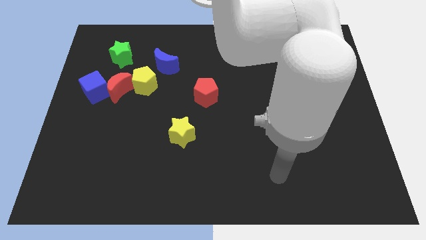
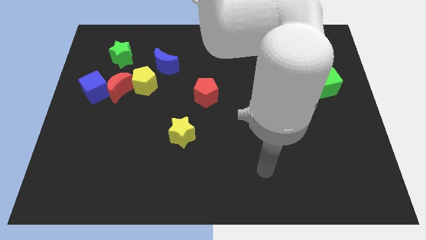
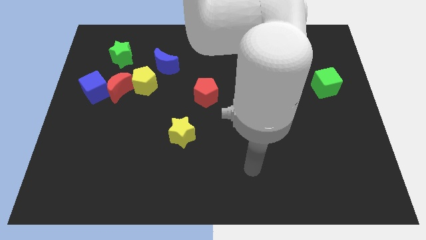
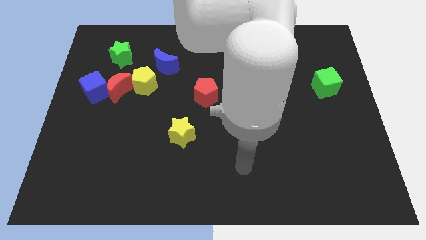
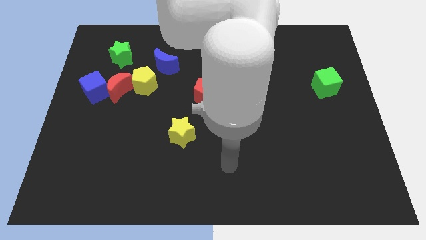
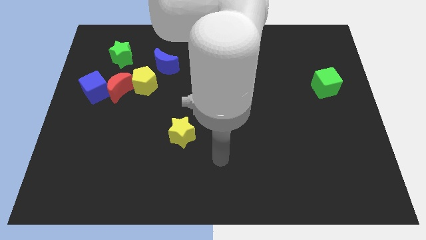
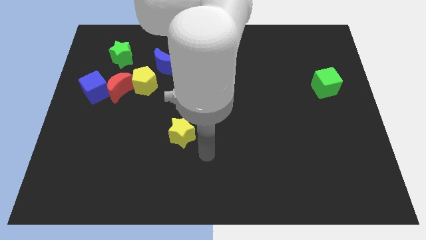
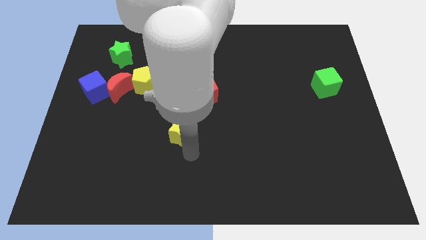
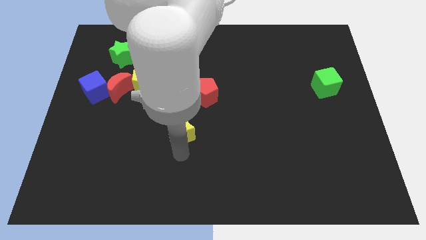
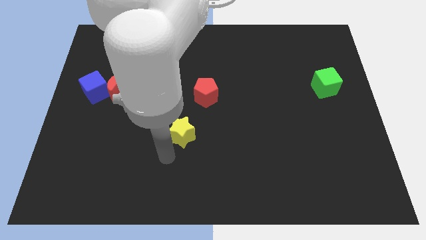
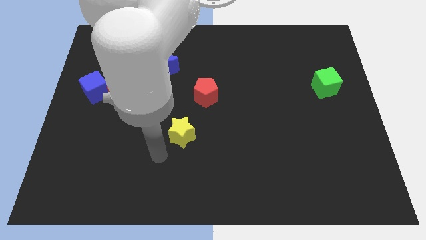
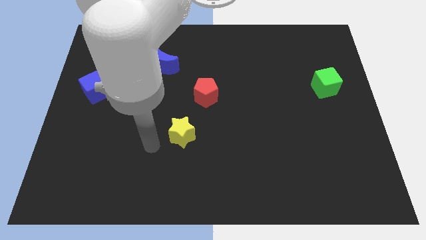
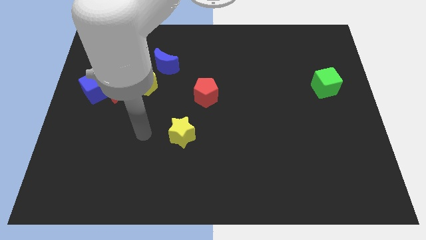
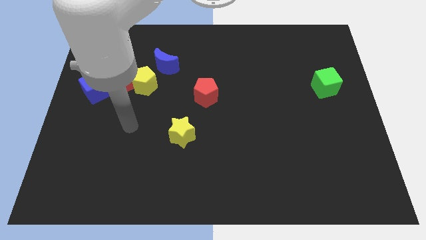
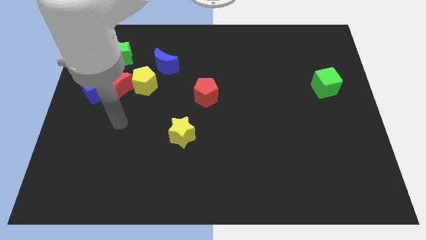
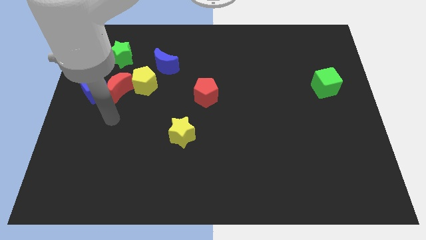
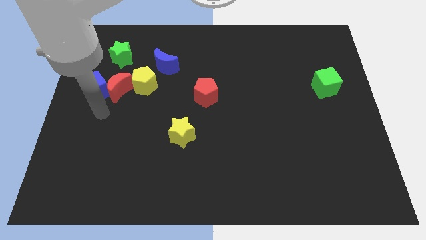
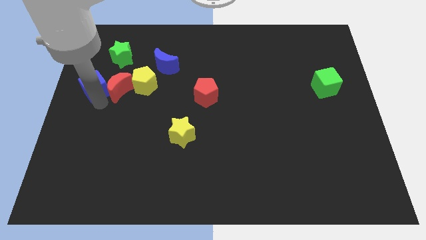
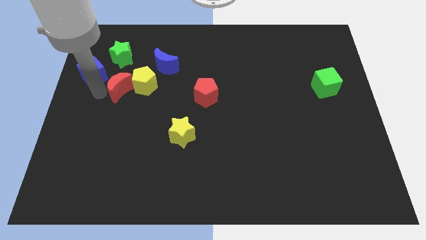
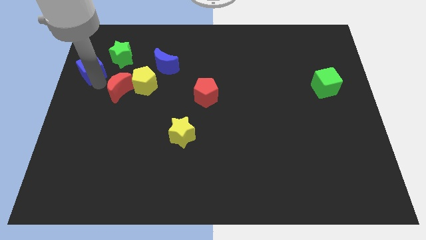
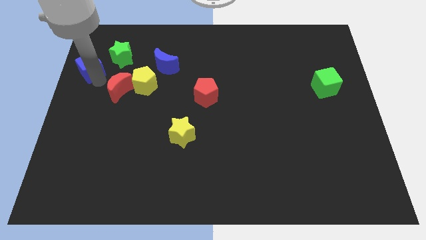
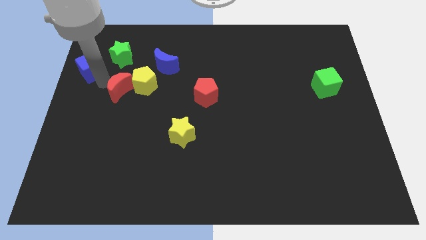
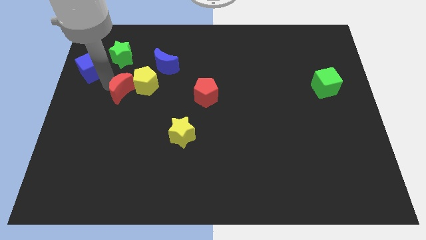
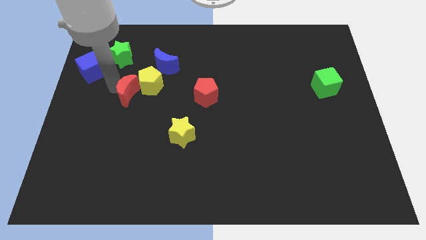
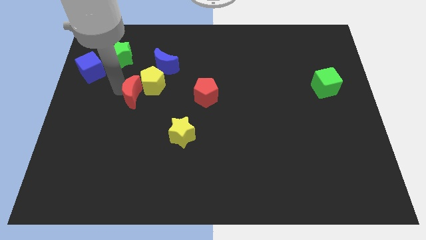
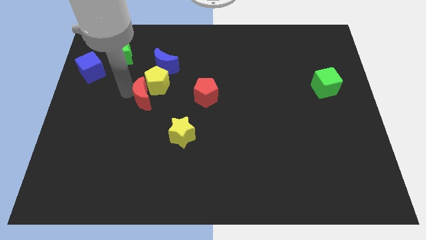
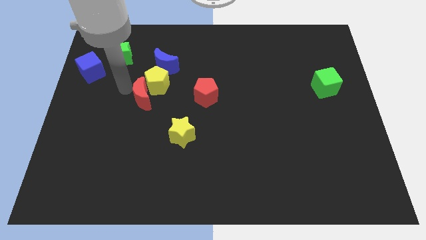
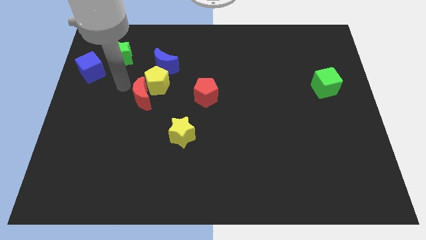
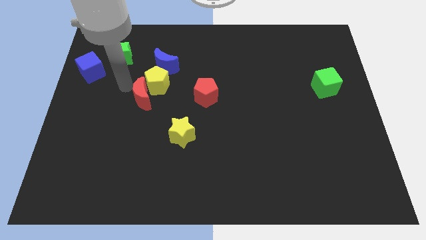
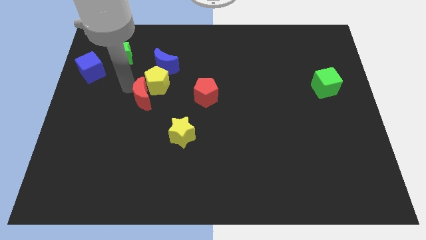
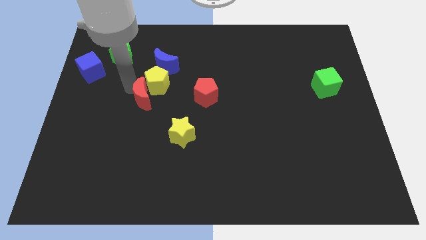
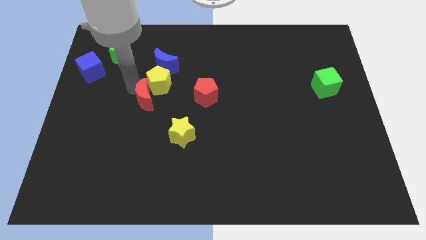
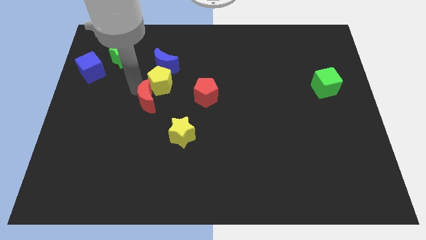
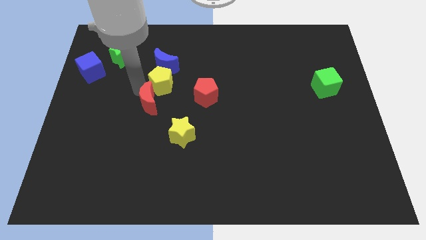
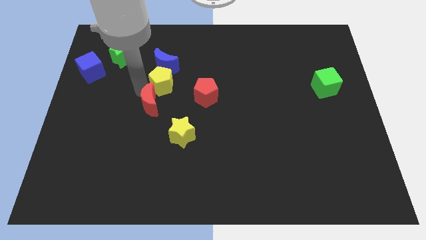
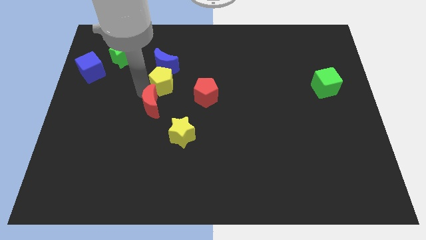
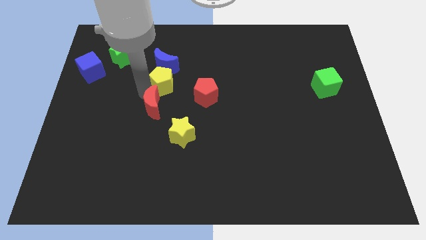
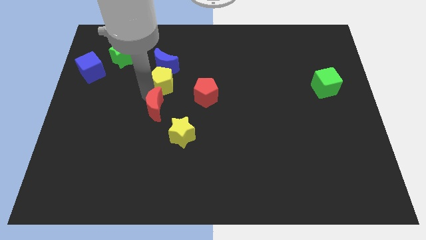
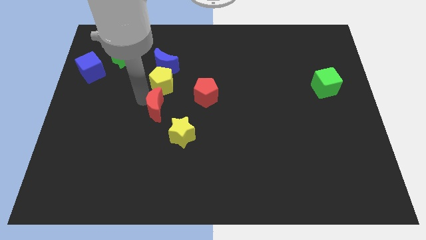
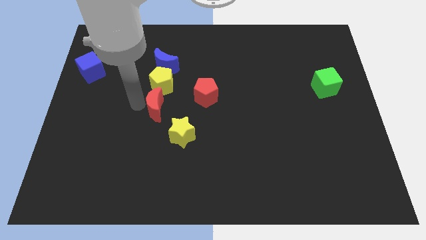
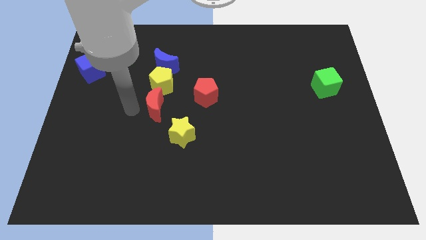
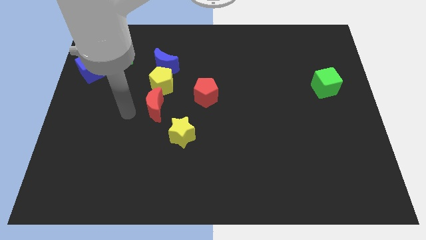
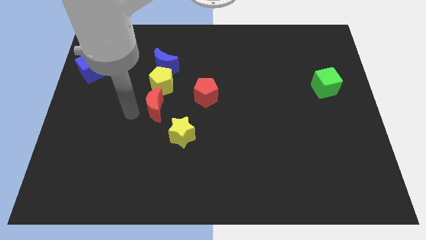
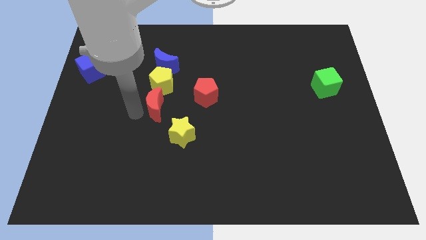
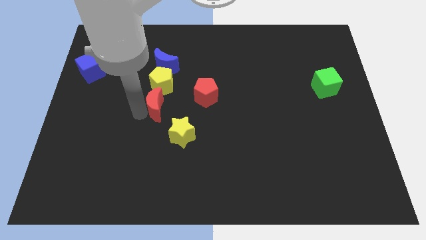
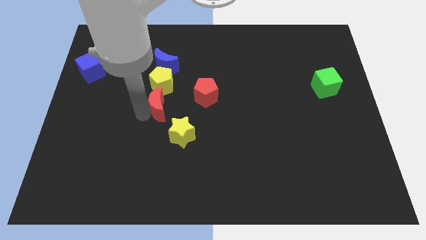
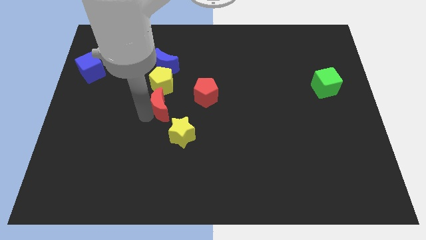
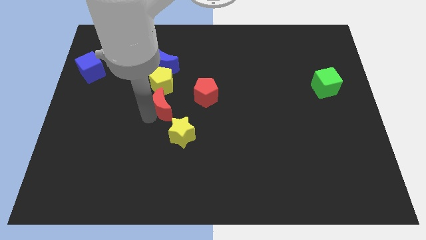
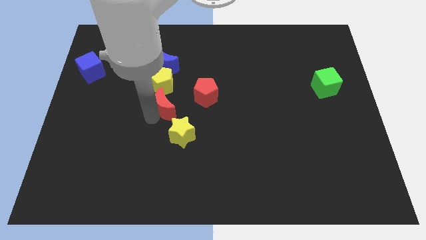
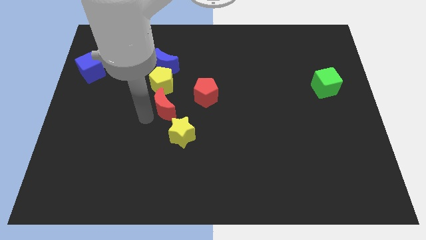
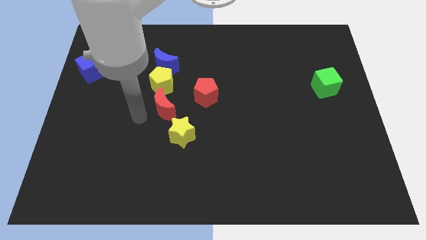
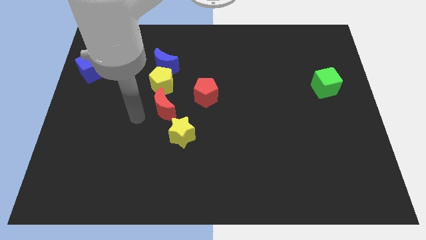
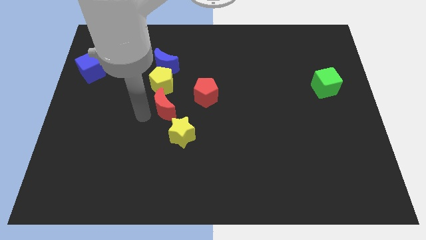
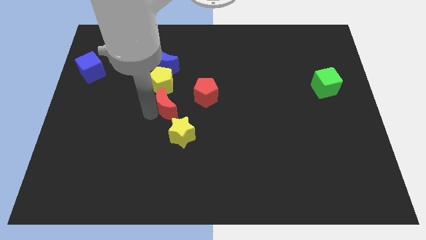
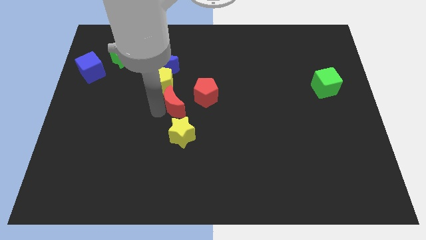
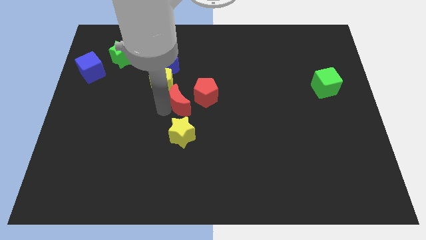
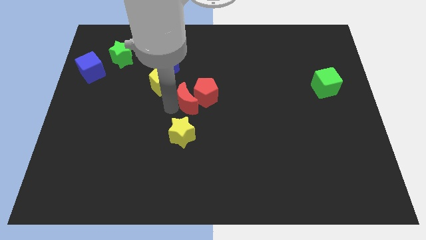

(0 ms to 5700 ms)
put the red moon to the red pentagon

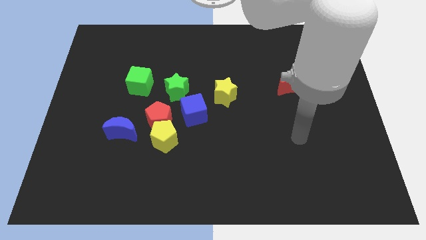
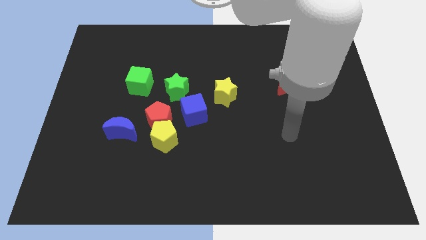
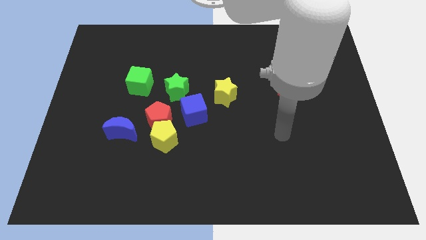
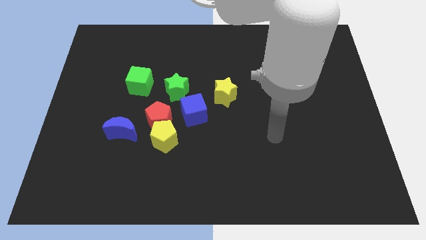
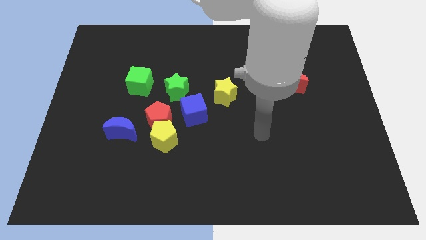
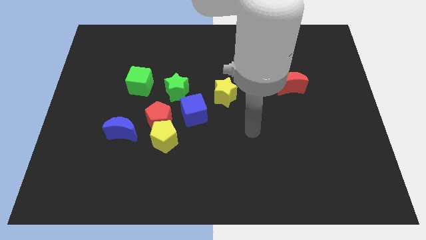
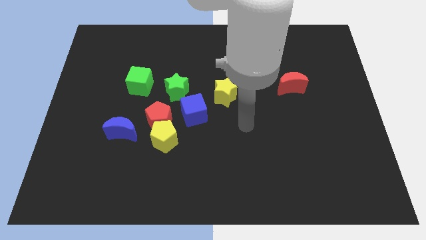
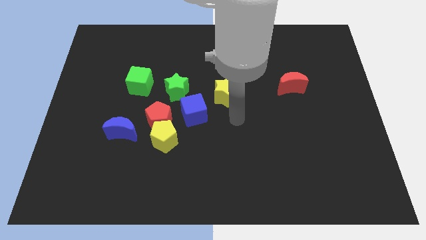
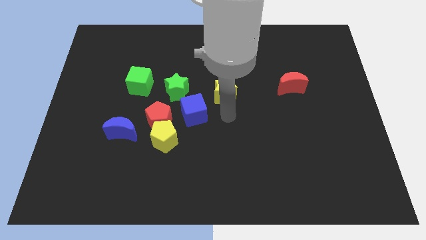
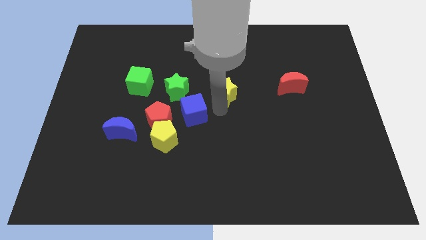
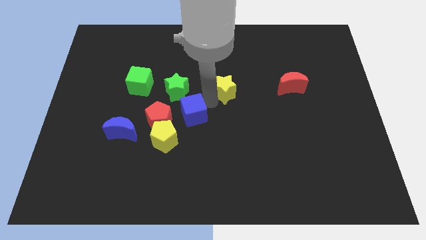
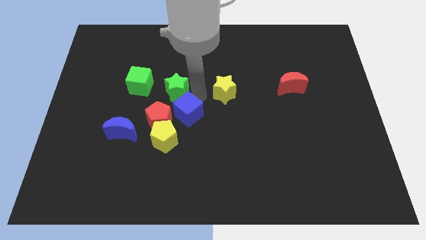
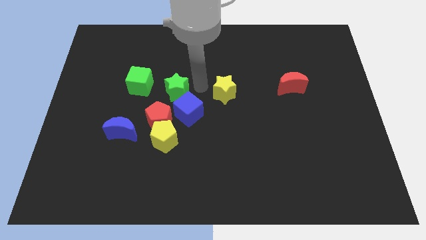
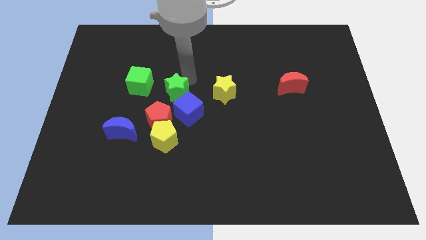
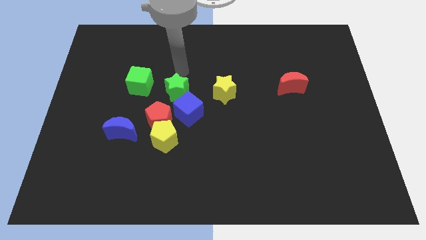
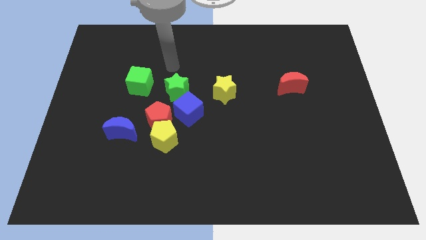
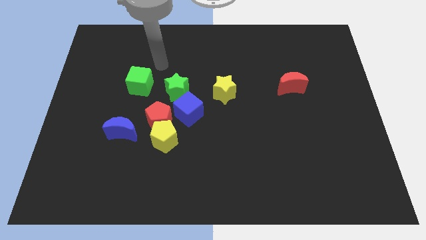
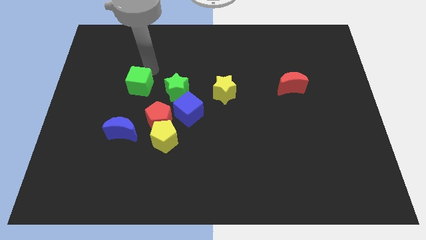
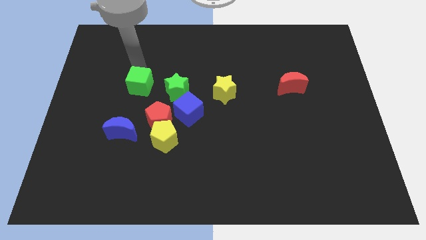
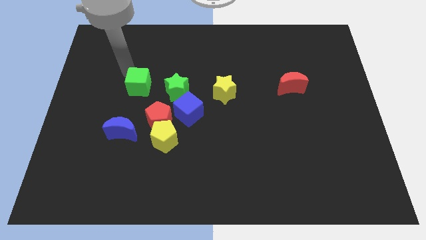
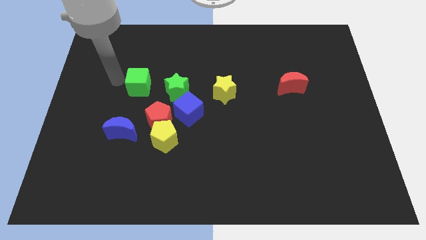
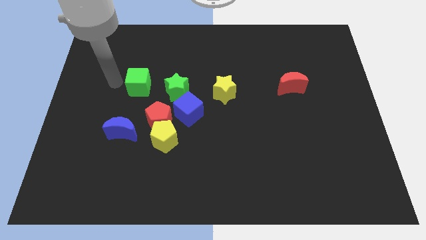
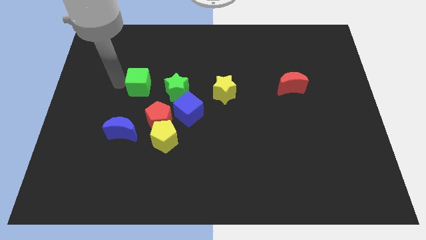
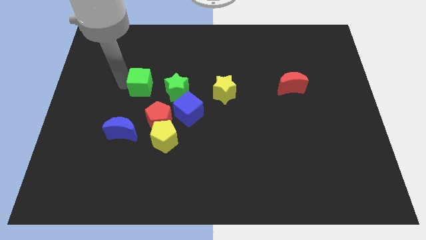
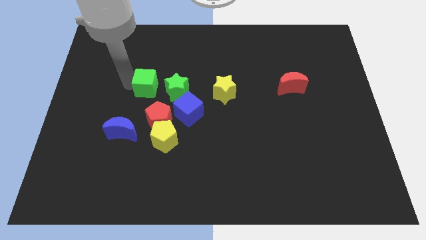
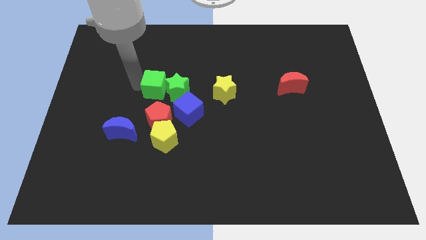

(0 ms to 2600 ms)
move the green cube to the green star
